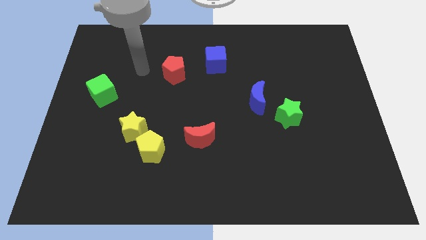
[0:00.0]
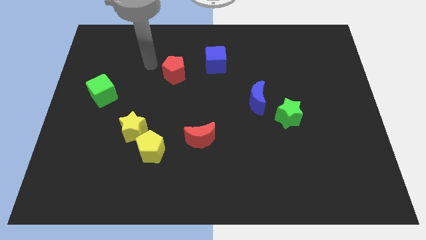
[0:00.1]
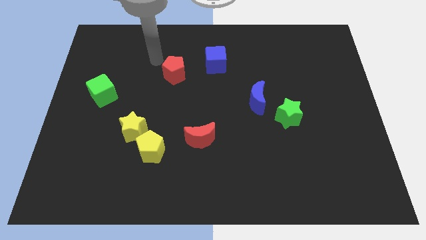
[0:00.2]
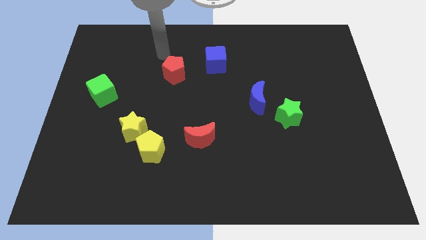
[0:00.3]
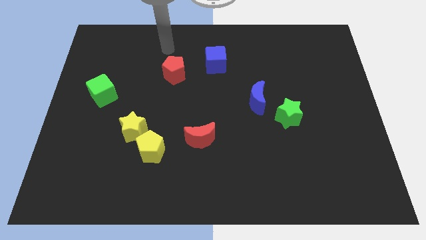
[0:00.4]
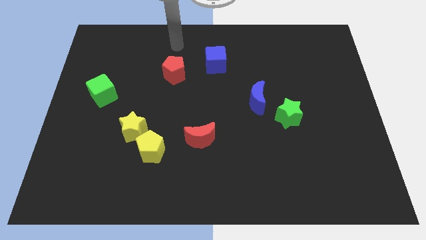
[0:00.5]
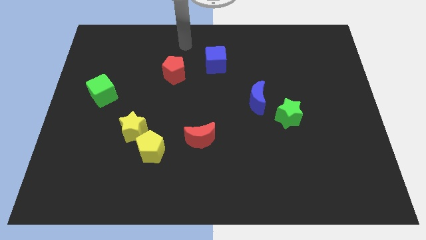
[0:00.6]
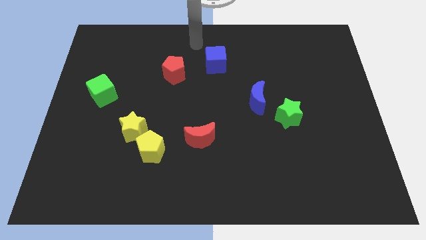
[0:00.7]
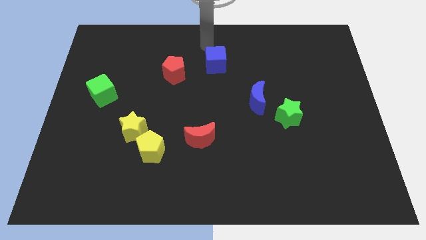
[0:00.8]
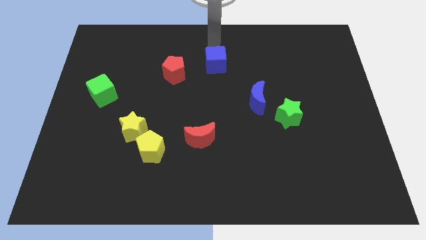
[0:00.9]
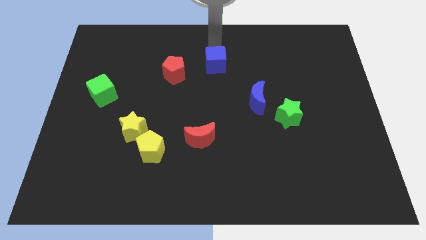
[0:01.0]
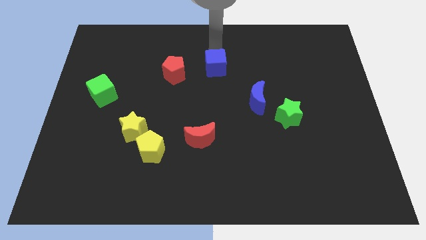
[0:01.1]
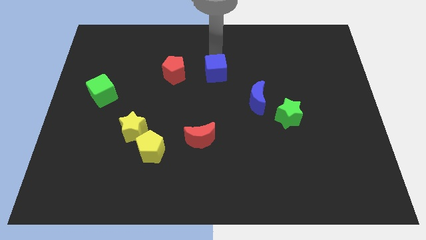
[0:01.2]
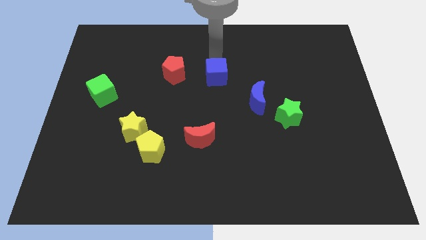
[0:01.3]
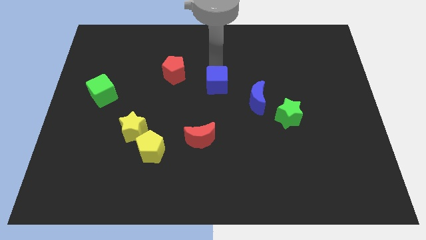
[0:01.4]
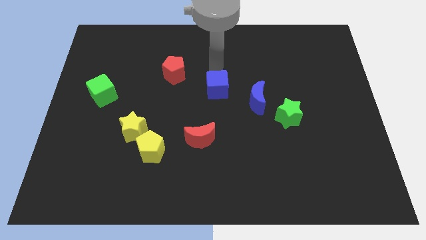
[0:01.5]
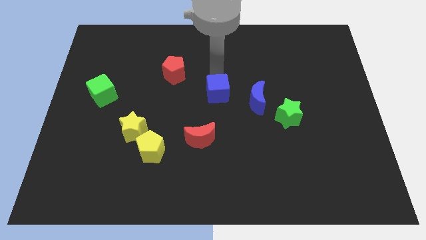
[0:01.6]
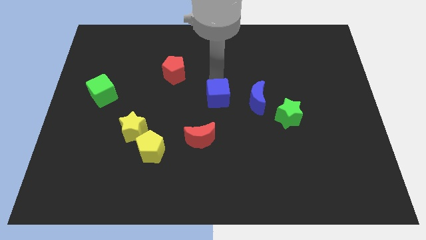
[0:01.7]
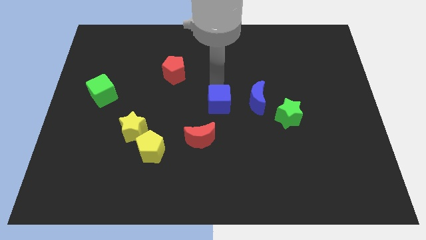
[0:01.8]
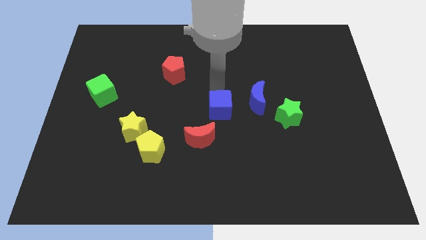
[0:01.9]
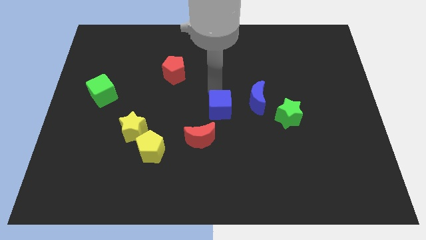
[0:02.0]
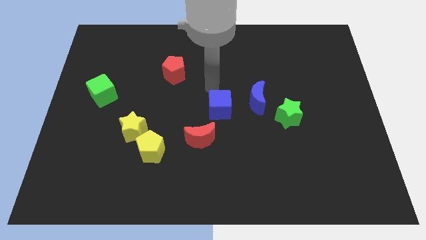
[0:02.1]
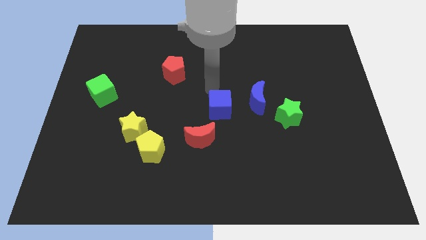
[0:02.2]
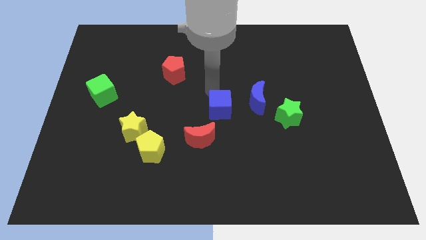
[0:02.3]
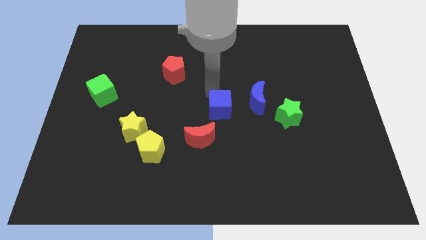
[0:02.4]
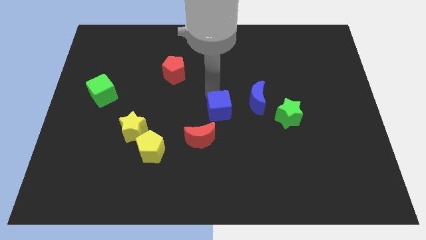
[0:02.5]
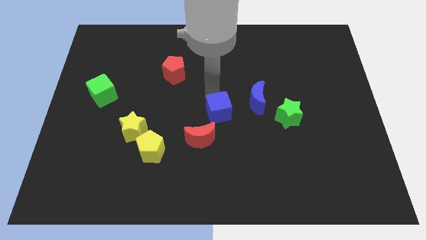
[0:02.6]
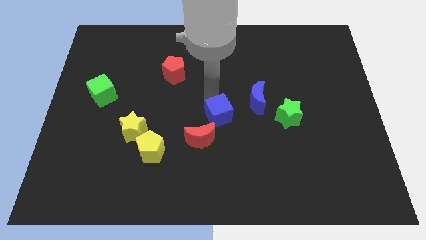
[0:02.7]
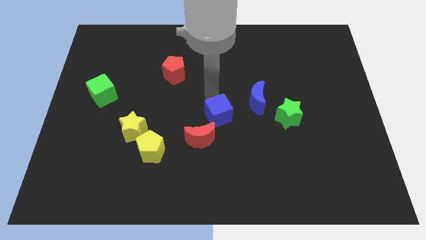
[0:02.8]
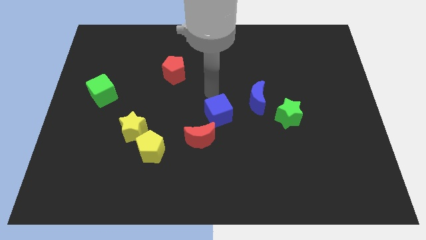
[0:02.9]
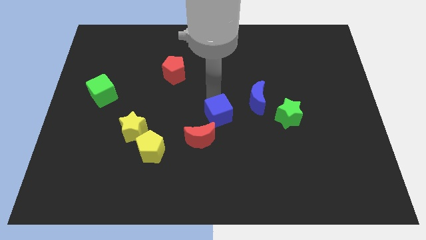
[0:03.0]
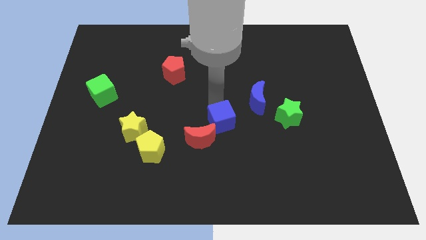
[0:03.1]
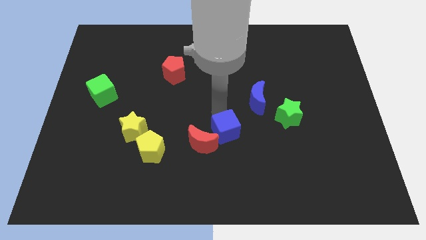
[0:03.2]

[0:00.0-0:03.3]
move the blue cube downwards

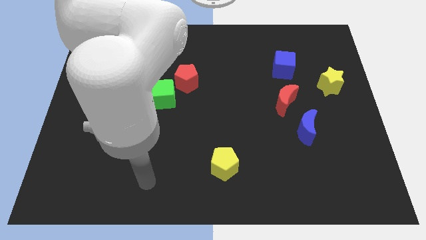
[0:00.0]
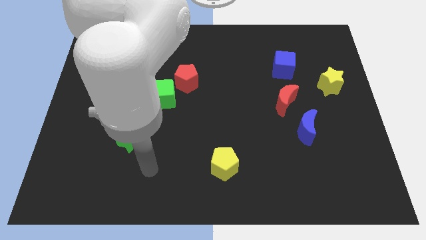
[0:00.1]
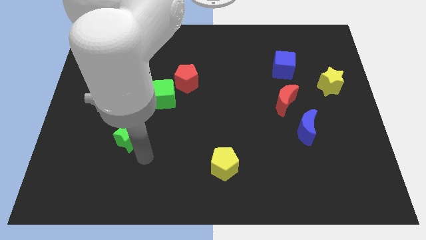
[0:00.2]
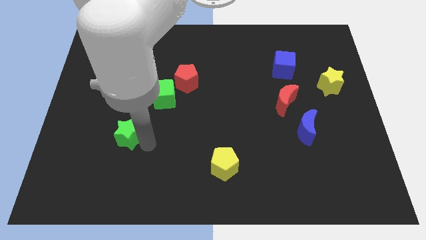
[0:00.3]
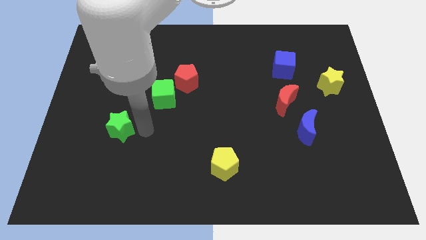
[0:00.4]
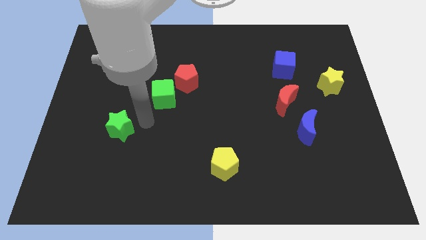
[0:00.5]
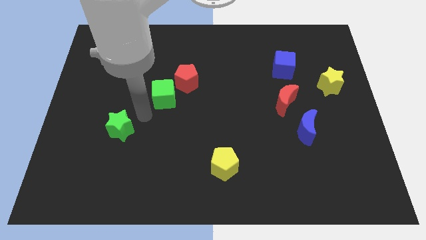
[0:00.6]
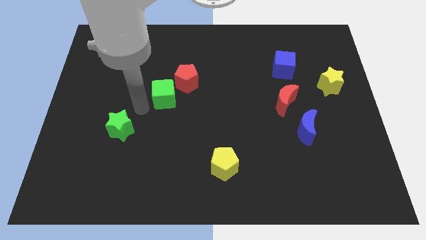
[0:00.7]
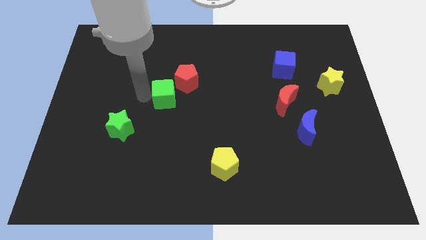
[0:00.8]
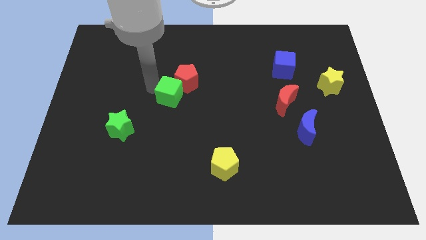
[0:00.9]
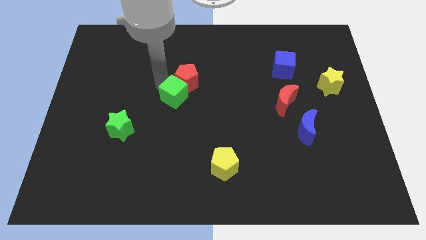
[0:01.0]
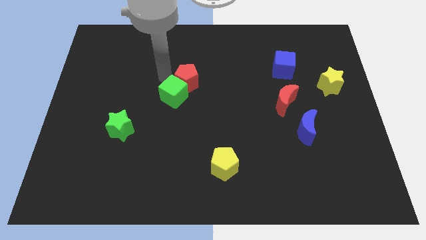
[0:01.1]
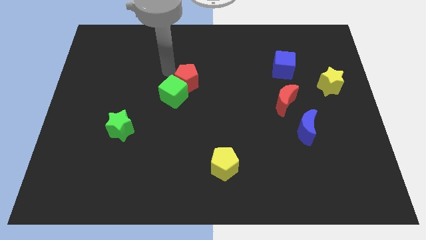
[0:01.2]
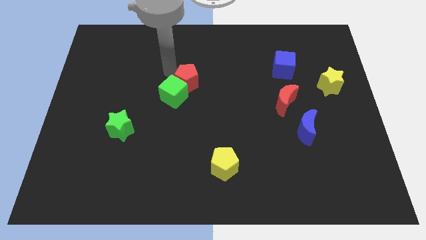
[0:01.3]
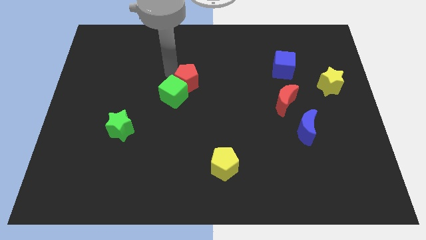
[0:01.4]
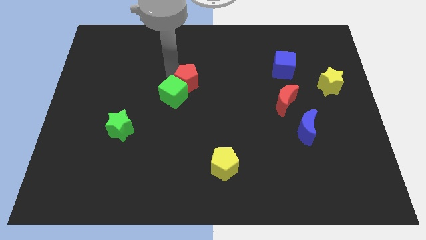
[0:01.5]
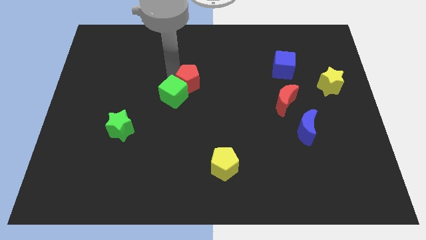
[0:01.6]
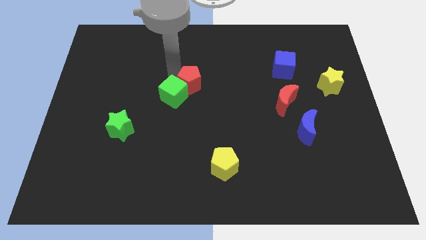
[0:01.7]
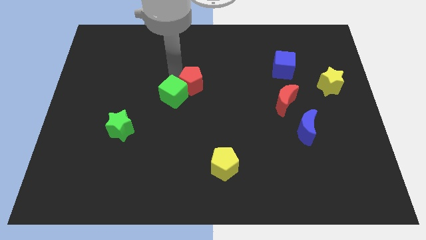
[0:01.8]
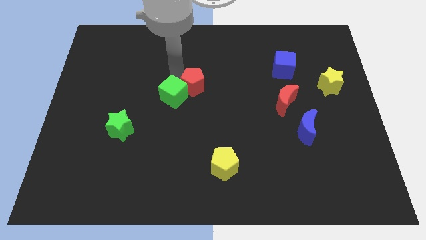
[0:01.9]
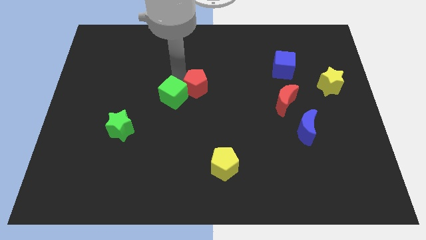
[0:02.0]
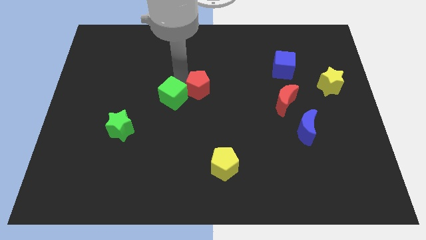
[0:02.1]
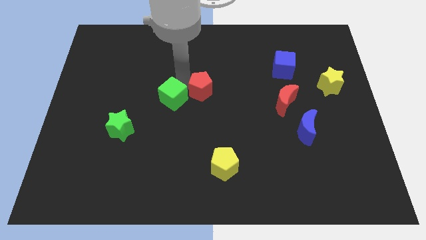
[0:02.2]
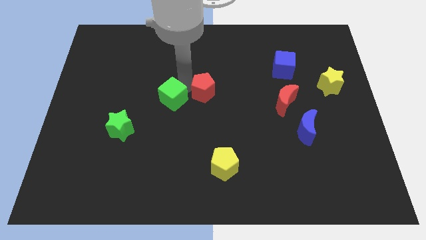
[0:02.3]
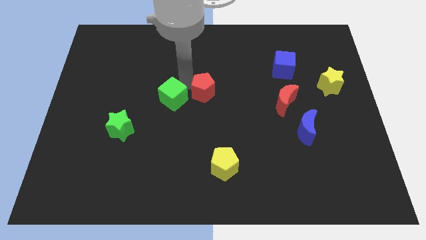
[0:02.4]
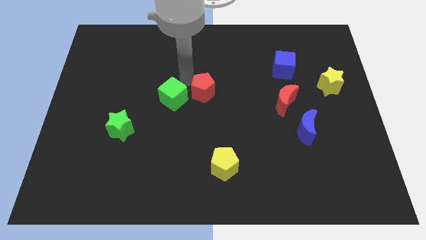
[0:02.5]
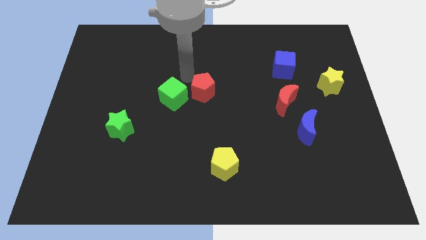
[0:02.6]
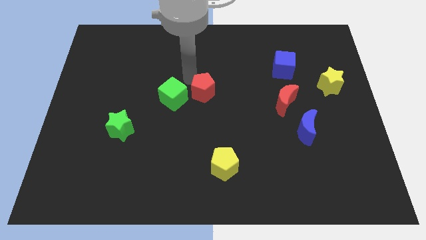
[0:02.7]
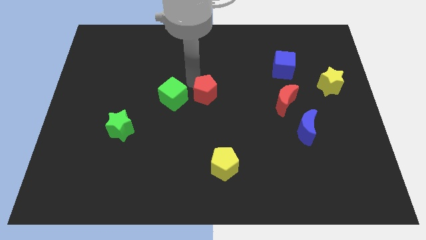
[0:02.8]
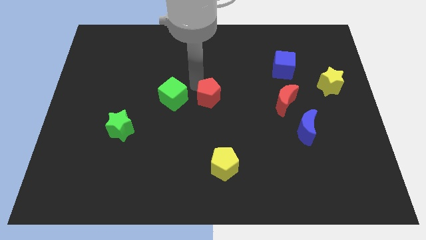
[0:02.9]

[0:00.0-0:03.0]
slightly push the red pentagon downwards and to the right diagonally

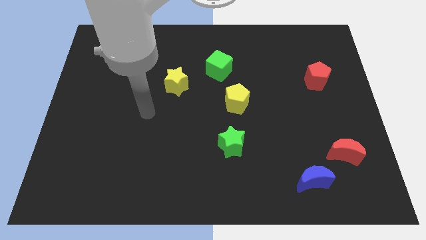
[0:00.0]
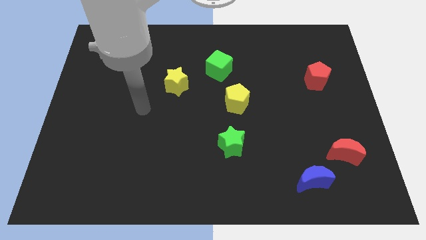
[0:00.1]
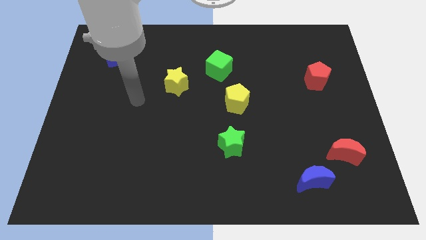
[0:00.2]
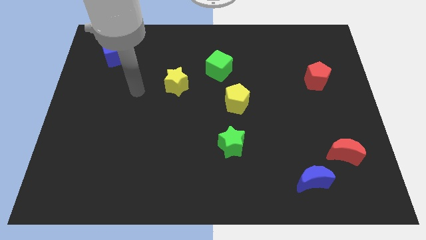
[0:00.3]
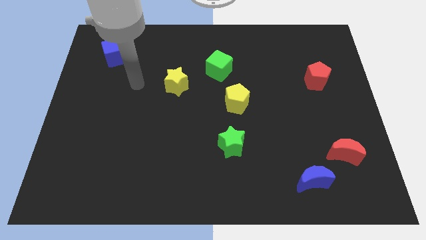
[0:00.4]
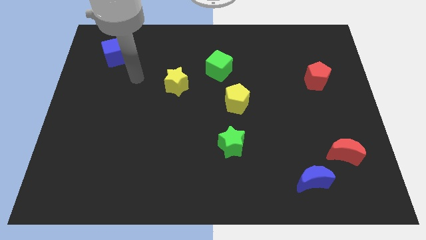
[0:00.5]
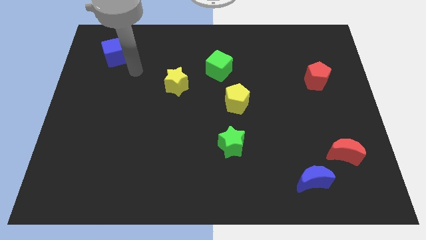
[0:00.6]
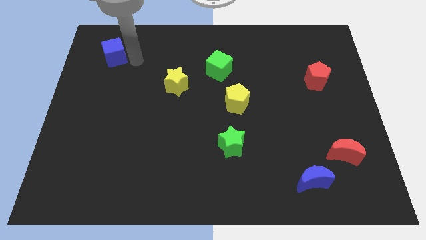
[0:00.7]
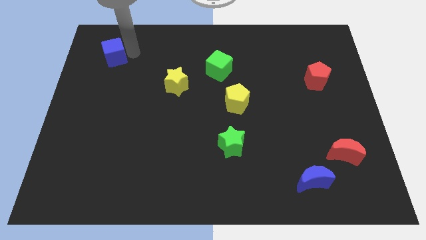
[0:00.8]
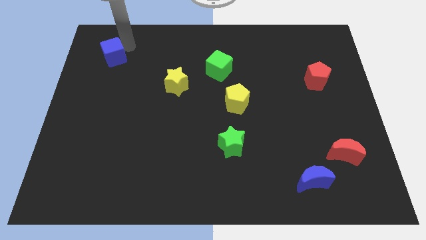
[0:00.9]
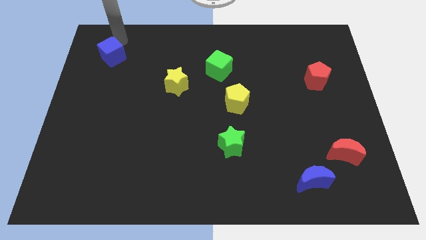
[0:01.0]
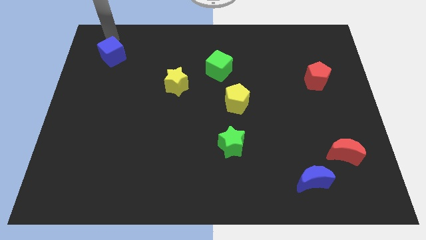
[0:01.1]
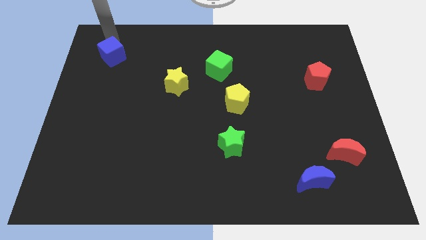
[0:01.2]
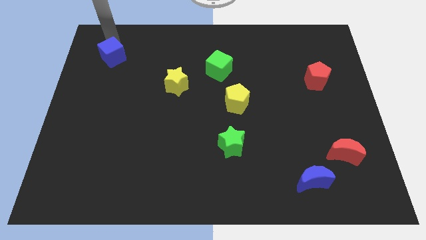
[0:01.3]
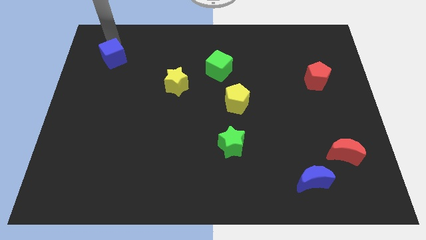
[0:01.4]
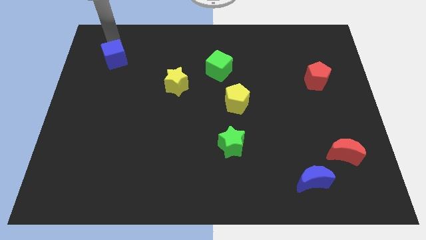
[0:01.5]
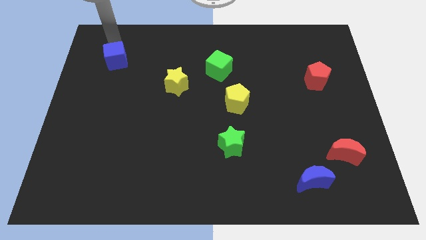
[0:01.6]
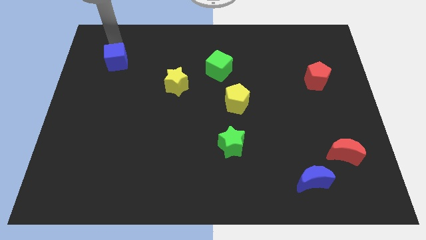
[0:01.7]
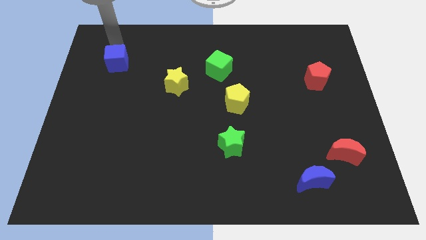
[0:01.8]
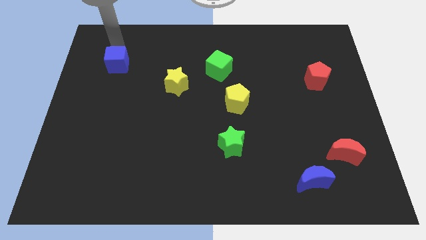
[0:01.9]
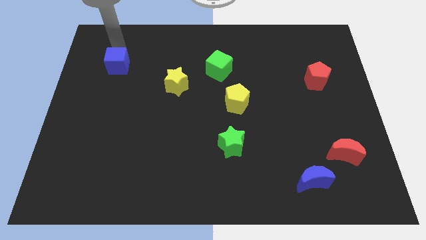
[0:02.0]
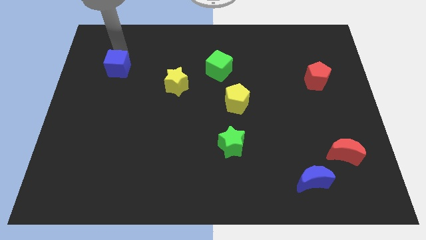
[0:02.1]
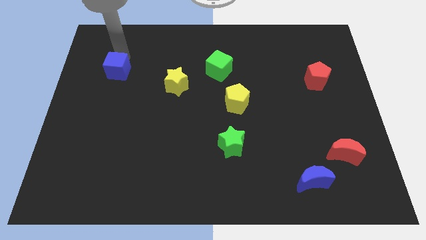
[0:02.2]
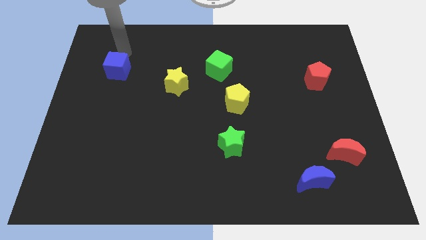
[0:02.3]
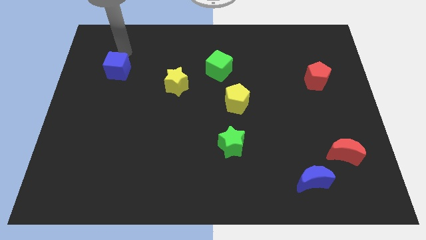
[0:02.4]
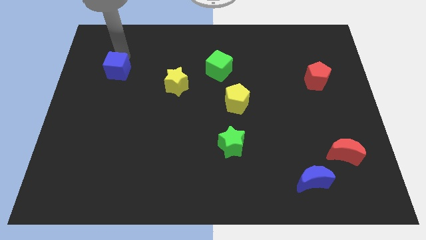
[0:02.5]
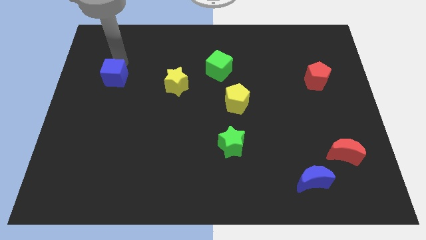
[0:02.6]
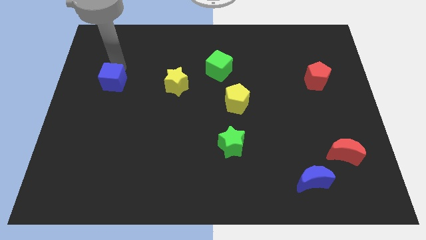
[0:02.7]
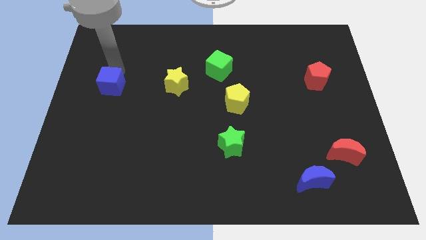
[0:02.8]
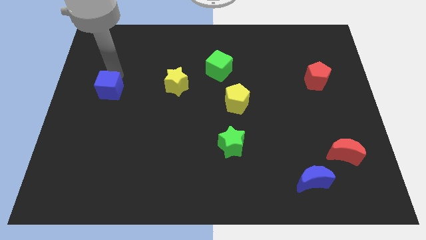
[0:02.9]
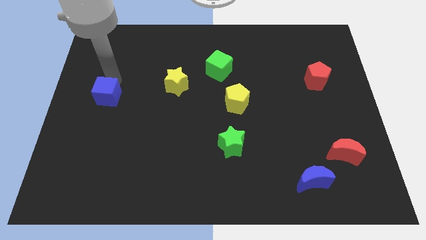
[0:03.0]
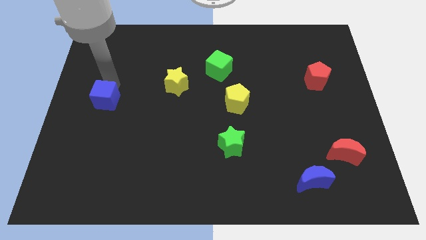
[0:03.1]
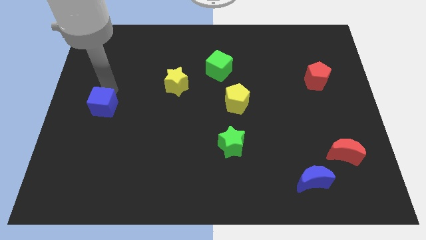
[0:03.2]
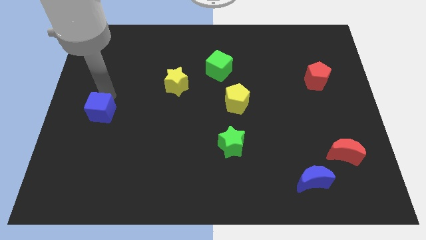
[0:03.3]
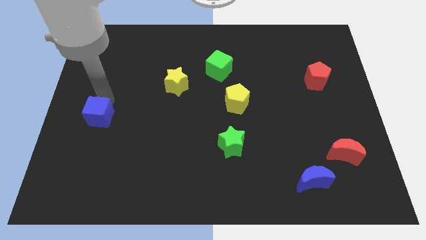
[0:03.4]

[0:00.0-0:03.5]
push the blue cube down
